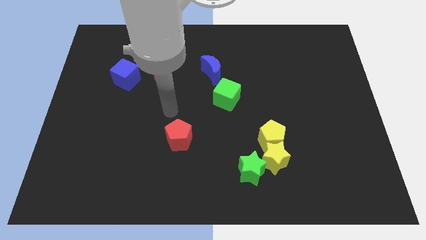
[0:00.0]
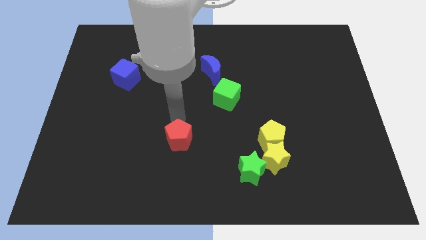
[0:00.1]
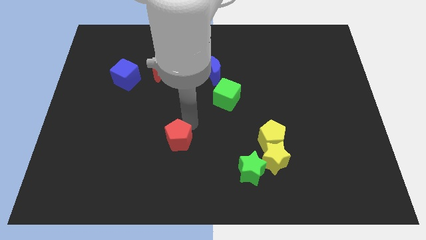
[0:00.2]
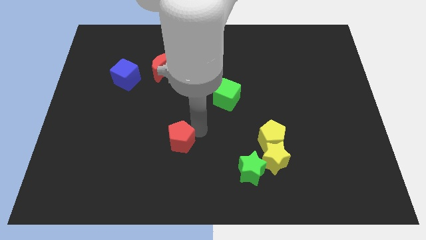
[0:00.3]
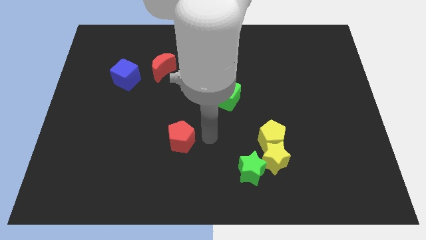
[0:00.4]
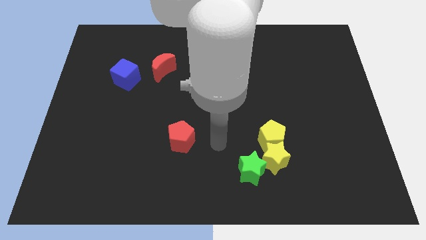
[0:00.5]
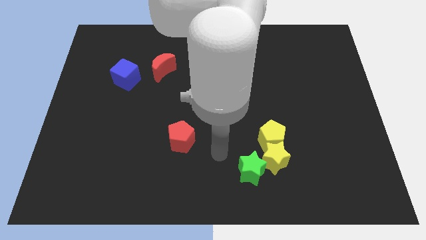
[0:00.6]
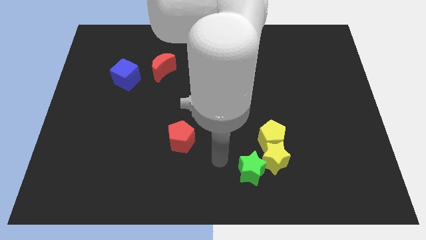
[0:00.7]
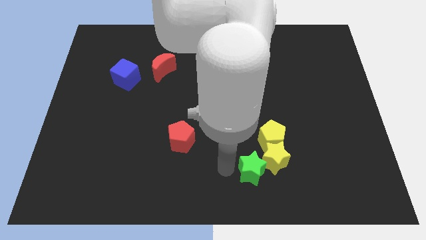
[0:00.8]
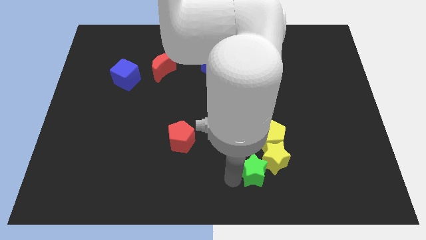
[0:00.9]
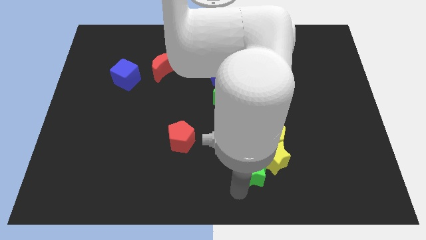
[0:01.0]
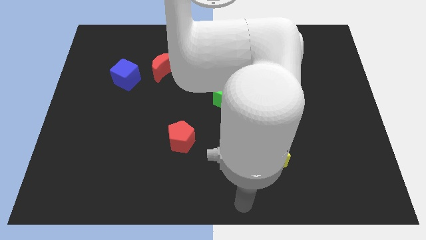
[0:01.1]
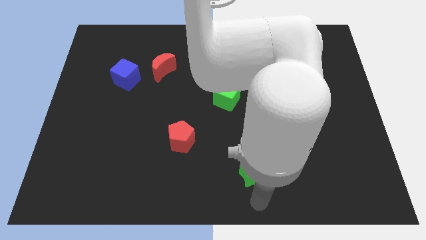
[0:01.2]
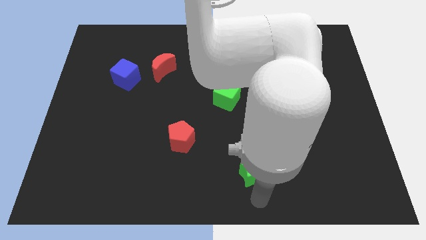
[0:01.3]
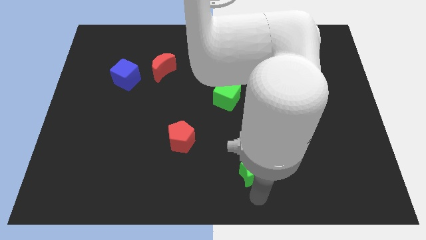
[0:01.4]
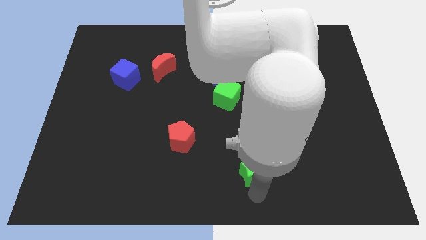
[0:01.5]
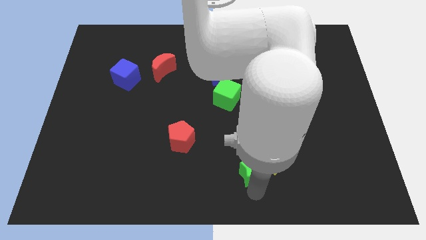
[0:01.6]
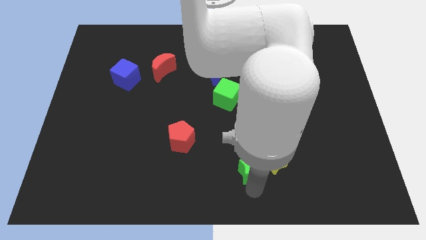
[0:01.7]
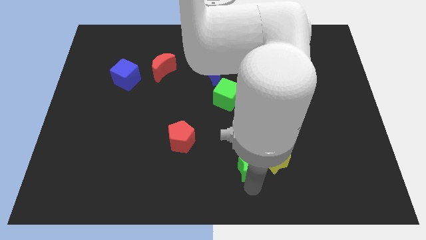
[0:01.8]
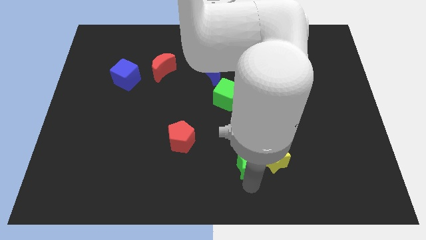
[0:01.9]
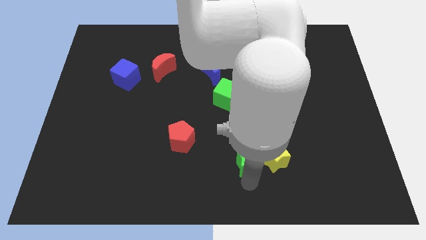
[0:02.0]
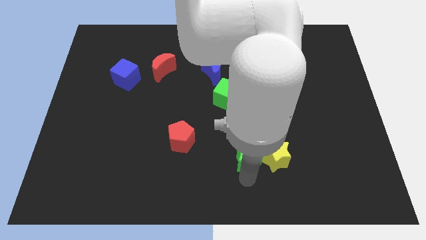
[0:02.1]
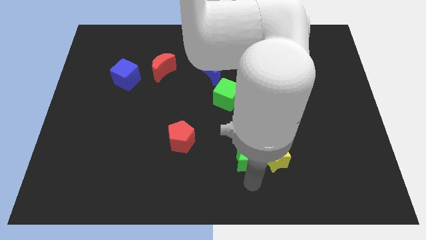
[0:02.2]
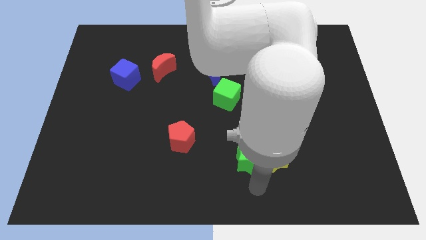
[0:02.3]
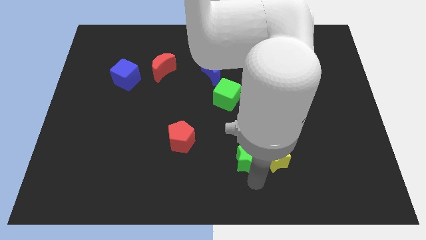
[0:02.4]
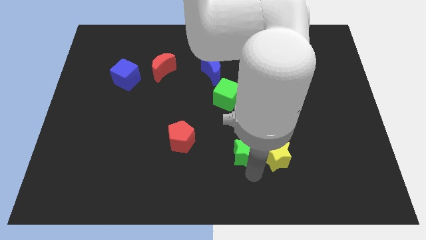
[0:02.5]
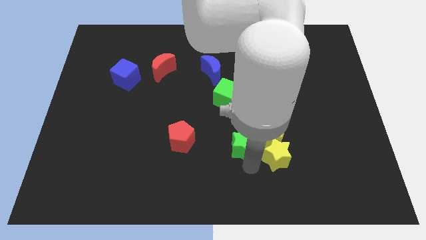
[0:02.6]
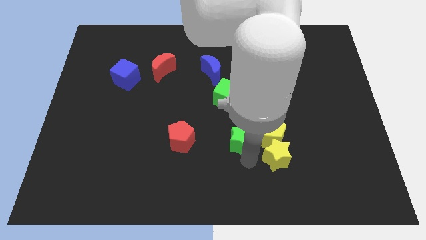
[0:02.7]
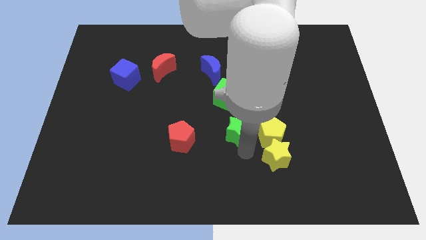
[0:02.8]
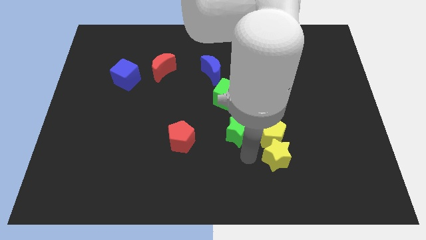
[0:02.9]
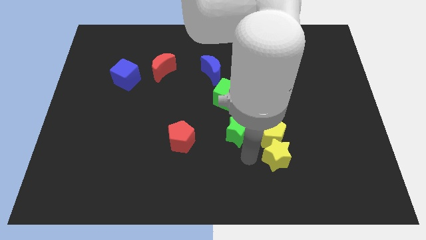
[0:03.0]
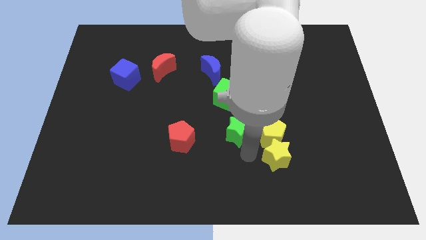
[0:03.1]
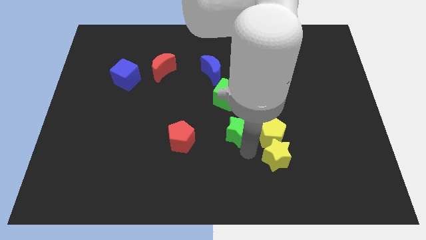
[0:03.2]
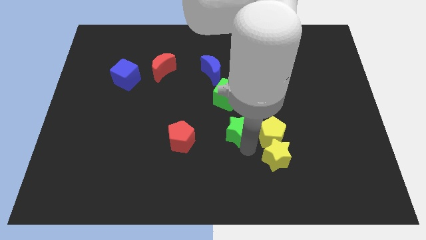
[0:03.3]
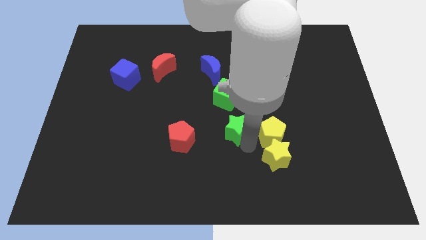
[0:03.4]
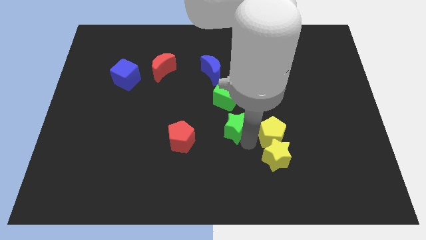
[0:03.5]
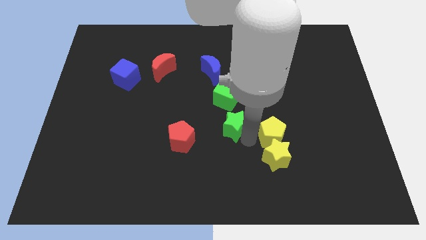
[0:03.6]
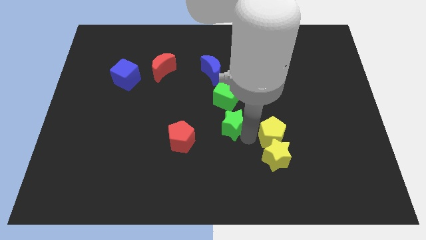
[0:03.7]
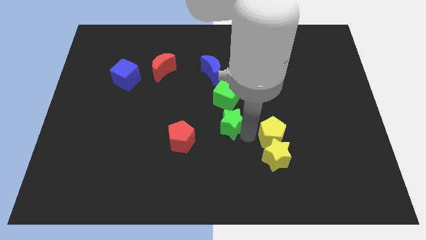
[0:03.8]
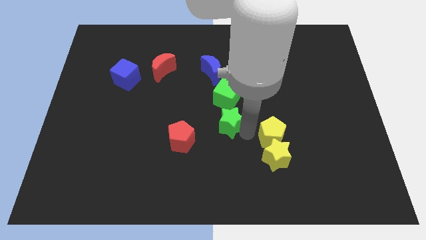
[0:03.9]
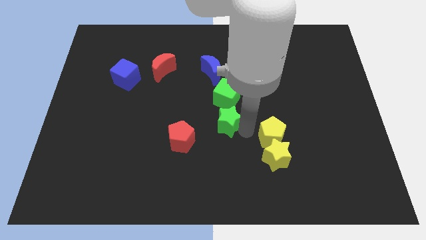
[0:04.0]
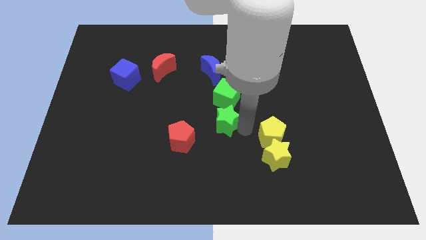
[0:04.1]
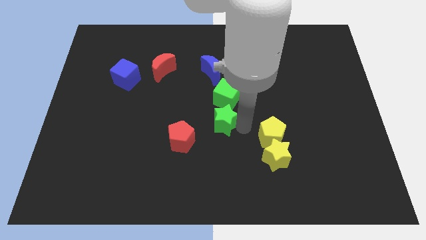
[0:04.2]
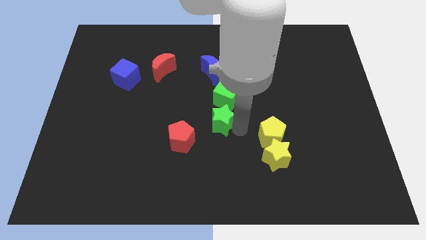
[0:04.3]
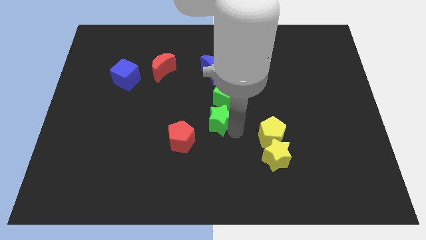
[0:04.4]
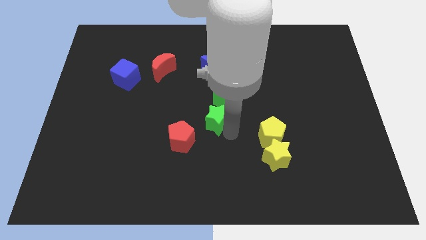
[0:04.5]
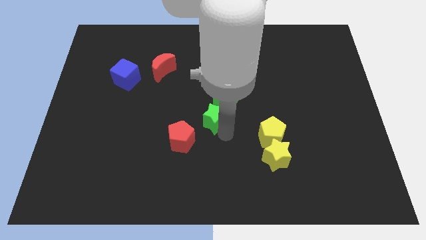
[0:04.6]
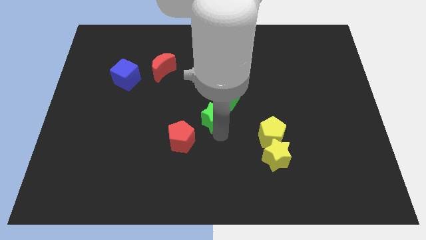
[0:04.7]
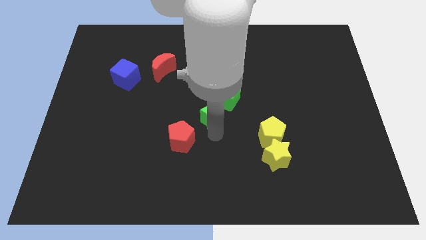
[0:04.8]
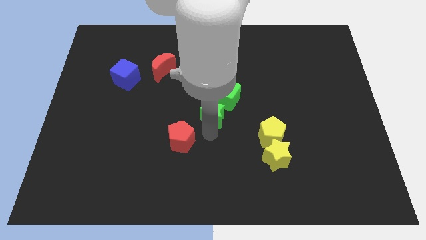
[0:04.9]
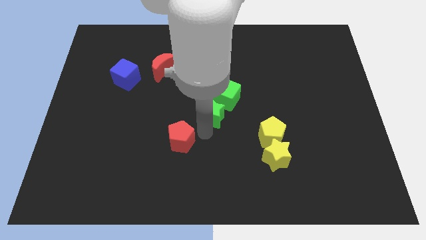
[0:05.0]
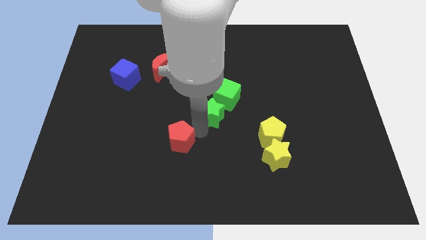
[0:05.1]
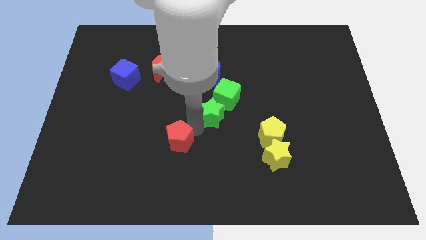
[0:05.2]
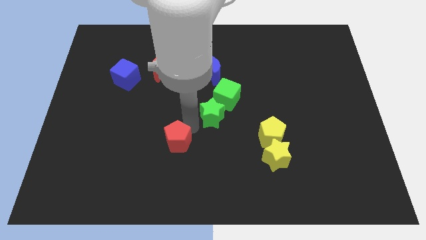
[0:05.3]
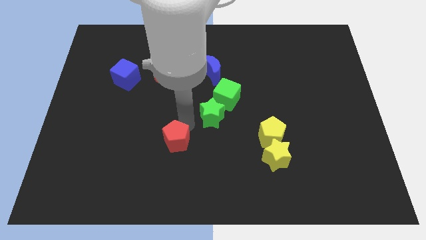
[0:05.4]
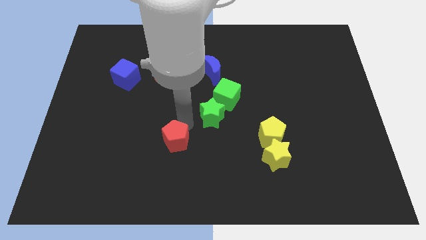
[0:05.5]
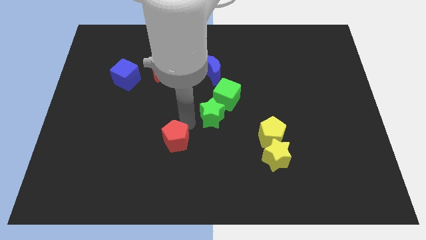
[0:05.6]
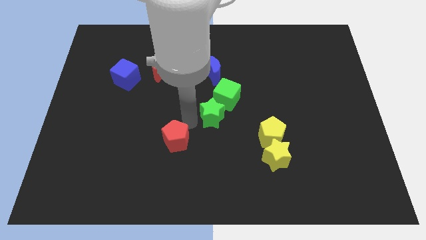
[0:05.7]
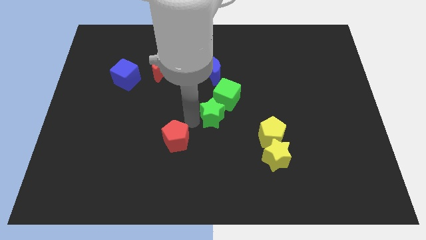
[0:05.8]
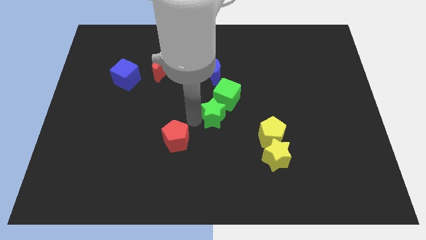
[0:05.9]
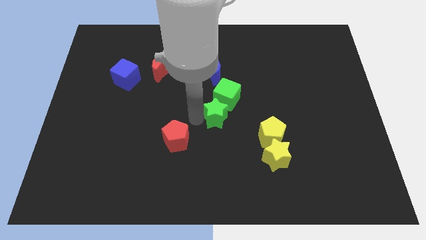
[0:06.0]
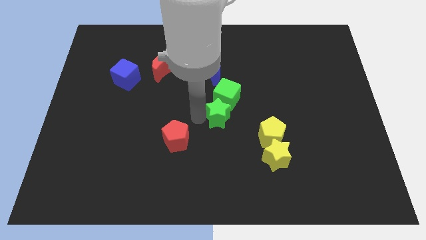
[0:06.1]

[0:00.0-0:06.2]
push the green star next to the green cube

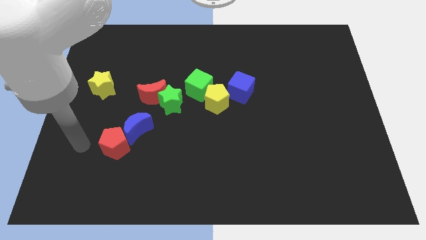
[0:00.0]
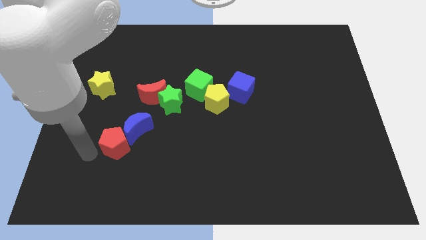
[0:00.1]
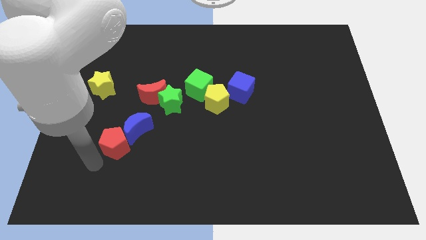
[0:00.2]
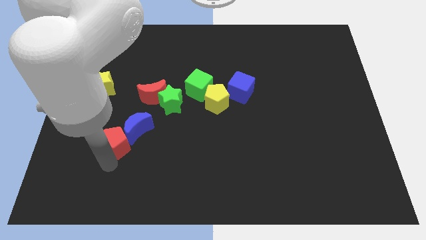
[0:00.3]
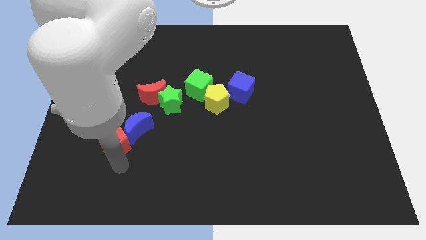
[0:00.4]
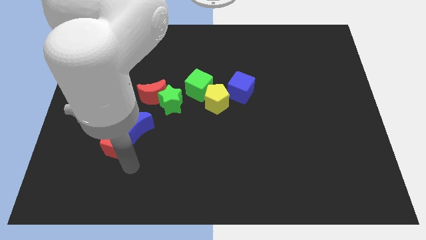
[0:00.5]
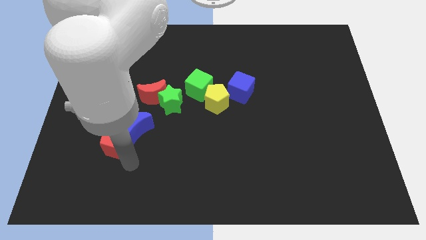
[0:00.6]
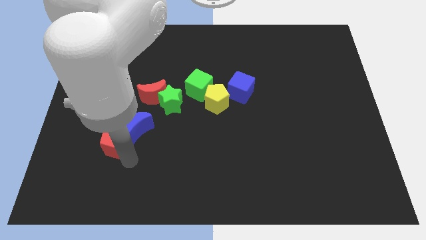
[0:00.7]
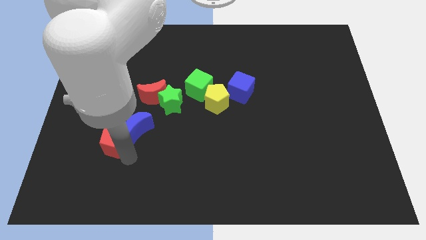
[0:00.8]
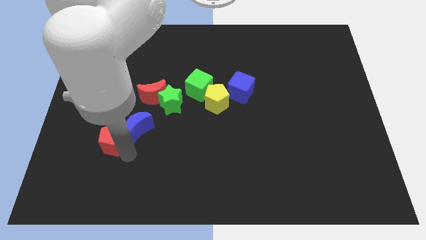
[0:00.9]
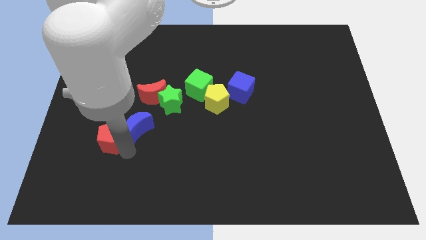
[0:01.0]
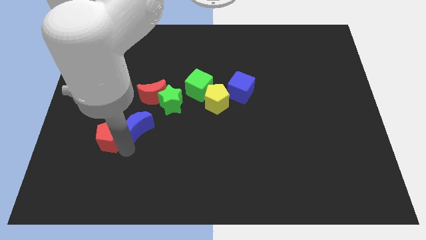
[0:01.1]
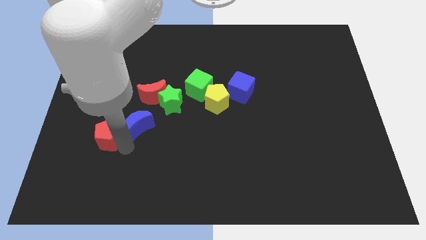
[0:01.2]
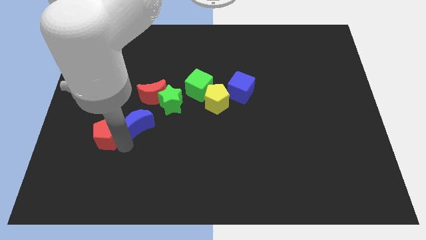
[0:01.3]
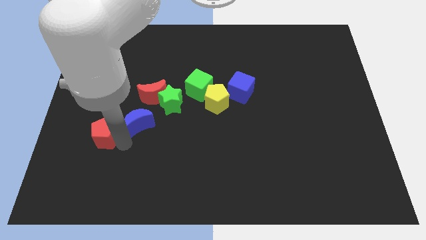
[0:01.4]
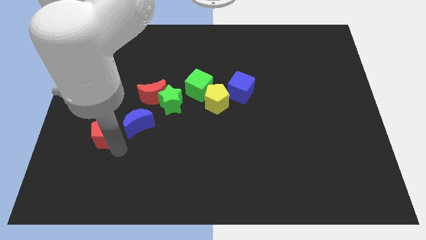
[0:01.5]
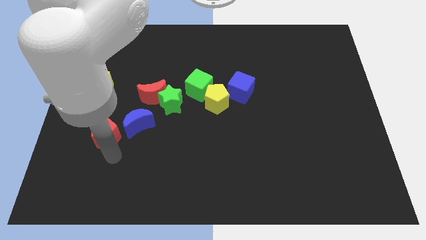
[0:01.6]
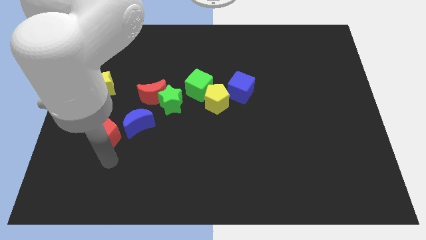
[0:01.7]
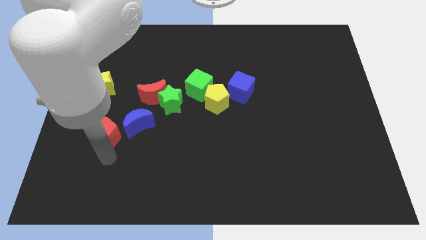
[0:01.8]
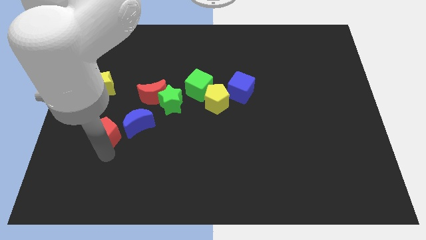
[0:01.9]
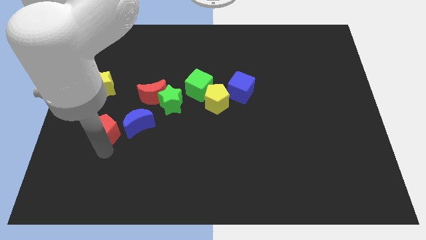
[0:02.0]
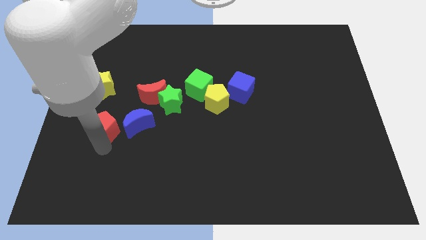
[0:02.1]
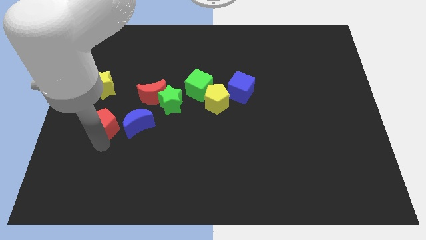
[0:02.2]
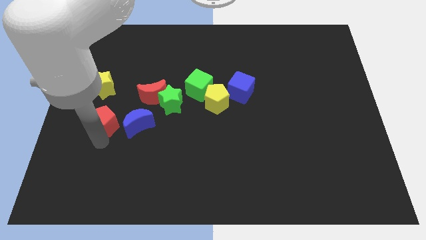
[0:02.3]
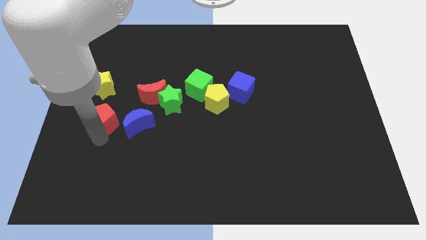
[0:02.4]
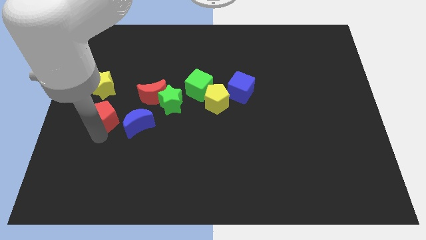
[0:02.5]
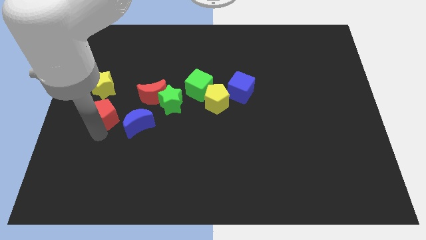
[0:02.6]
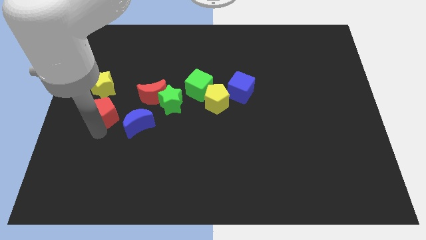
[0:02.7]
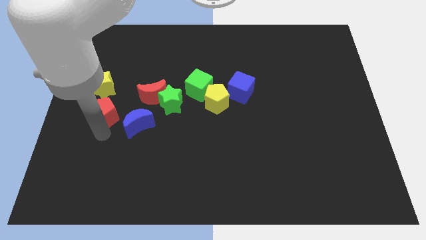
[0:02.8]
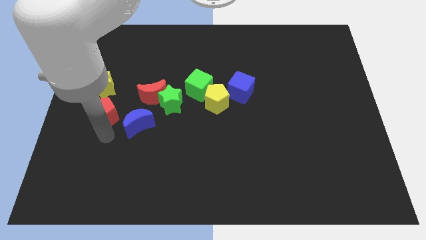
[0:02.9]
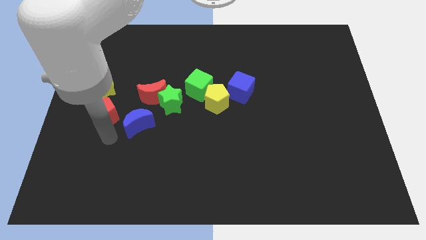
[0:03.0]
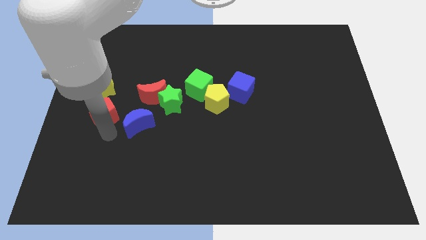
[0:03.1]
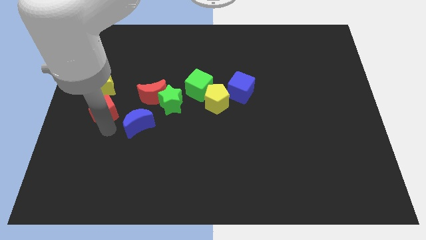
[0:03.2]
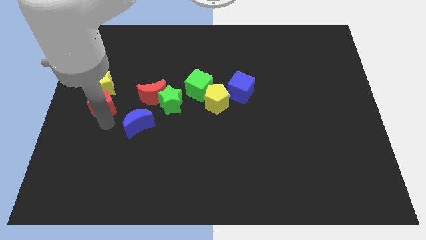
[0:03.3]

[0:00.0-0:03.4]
move the red pentagon to the yellow star
